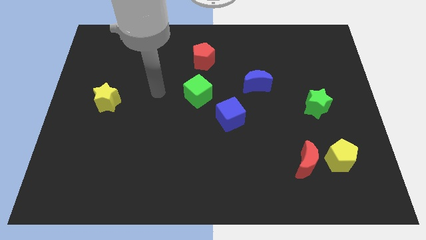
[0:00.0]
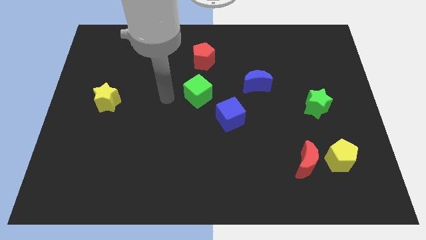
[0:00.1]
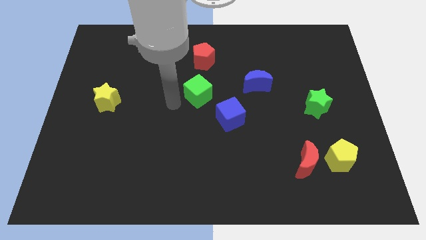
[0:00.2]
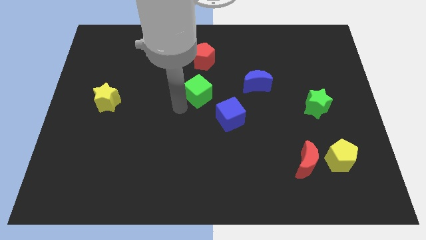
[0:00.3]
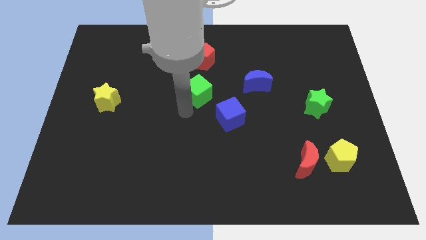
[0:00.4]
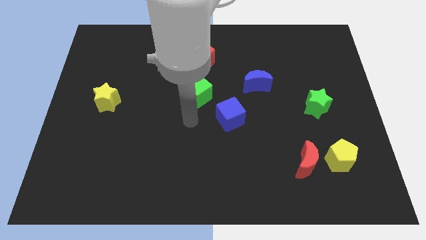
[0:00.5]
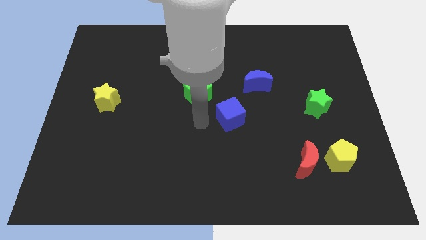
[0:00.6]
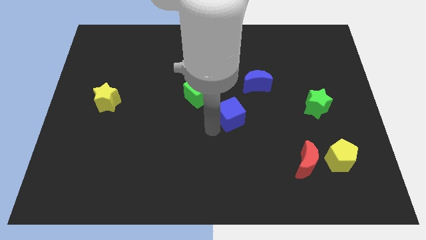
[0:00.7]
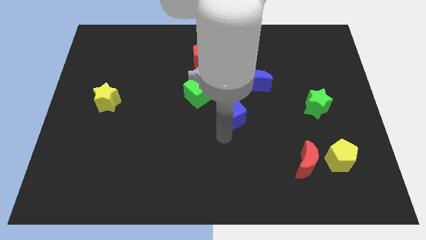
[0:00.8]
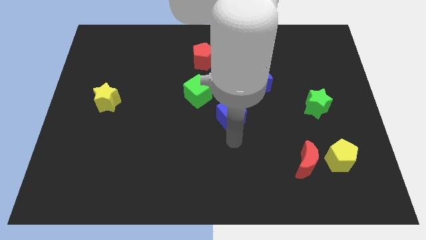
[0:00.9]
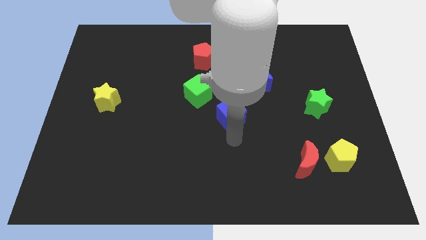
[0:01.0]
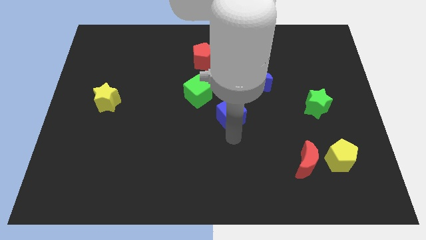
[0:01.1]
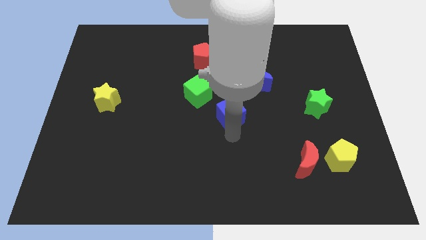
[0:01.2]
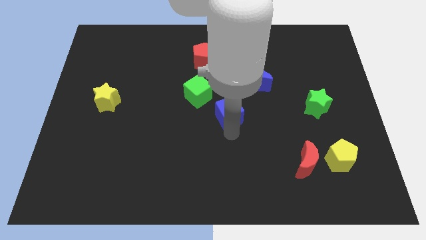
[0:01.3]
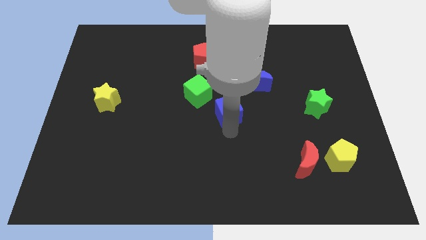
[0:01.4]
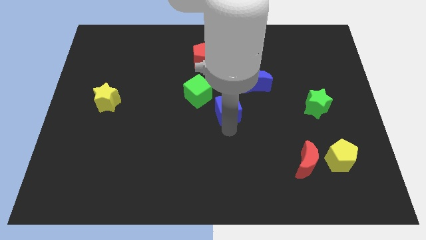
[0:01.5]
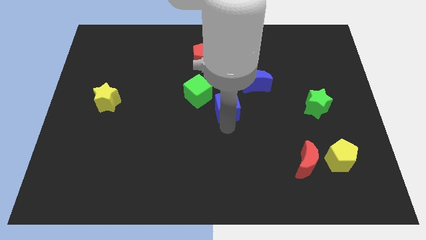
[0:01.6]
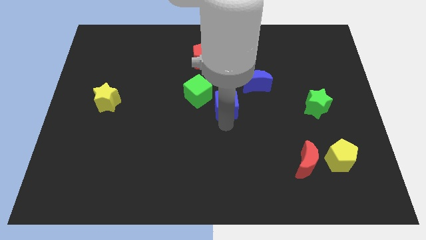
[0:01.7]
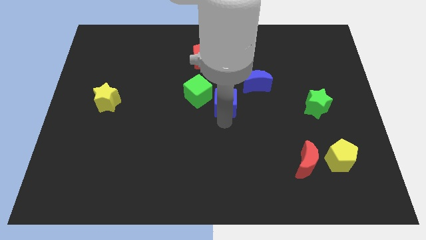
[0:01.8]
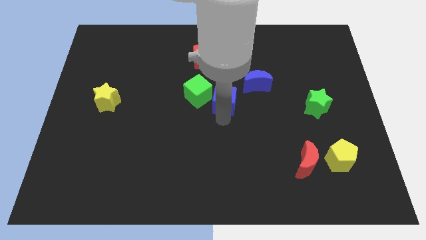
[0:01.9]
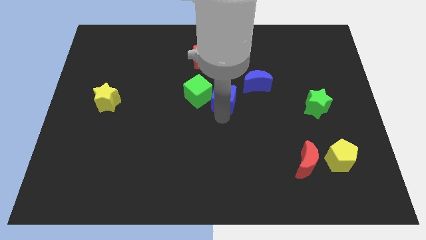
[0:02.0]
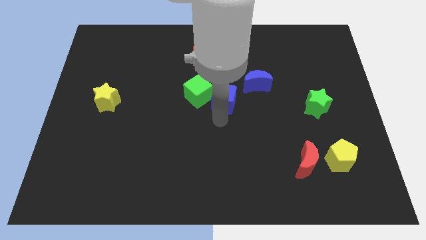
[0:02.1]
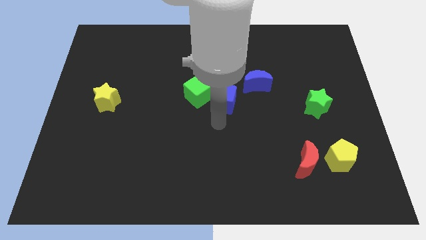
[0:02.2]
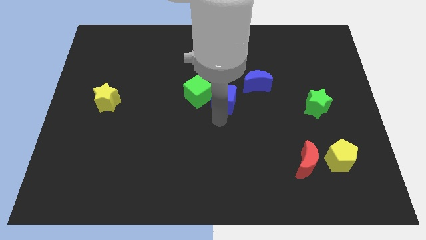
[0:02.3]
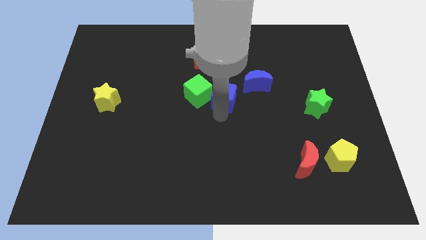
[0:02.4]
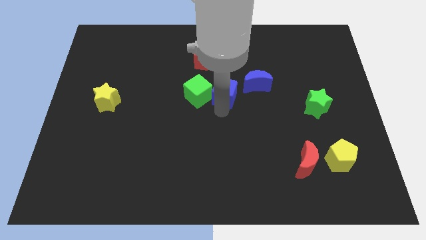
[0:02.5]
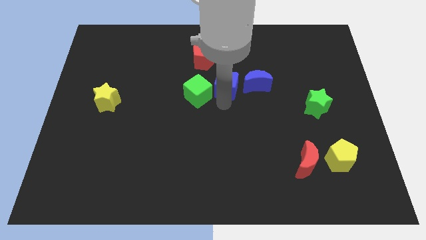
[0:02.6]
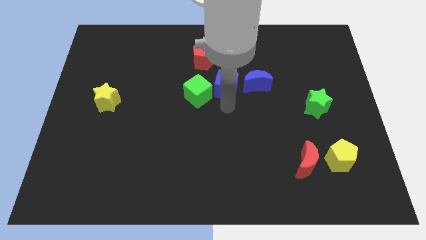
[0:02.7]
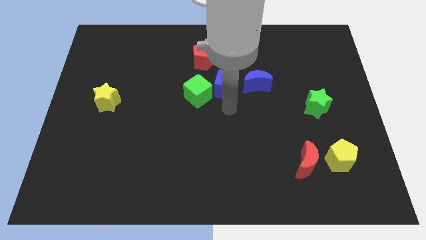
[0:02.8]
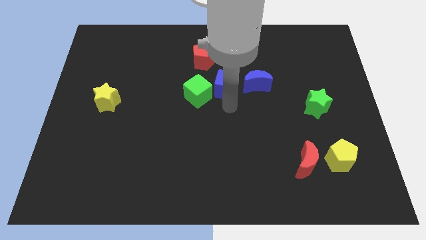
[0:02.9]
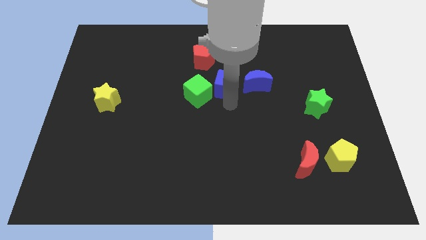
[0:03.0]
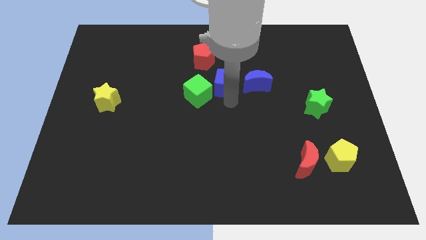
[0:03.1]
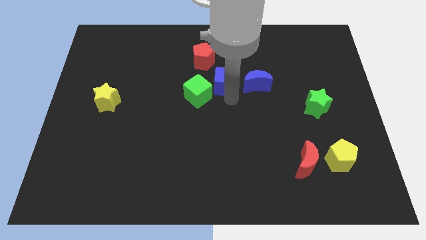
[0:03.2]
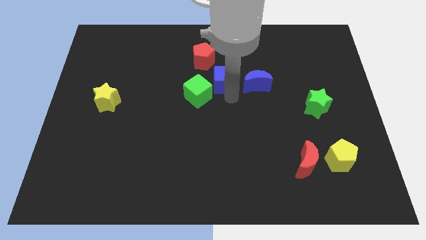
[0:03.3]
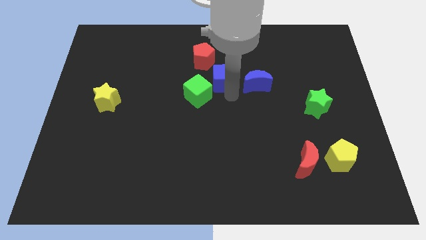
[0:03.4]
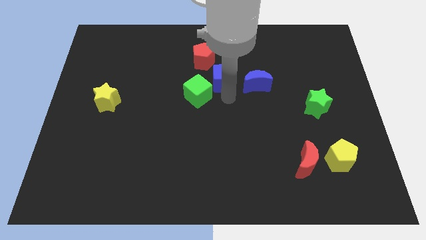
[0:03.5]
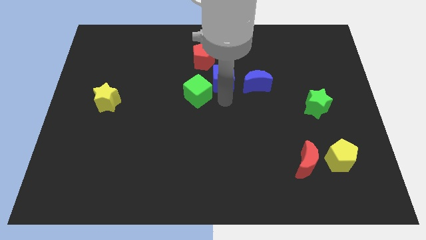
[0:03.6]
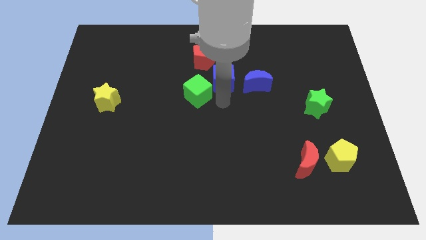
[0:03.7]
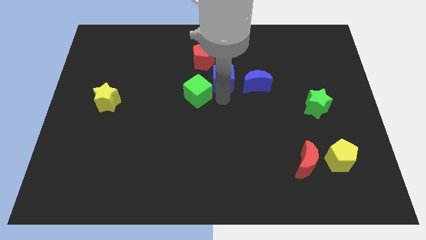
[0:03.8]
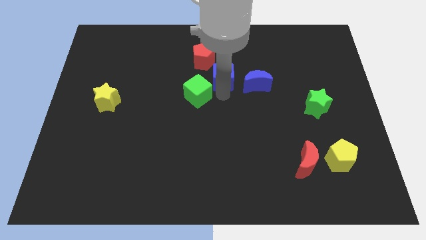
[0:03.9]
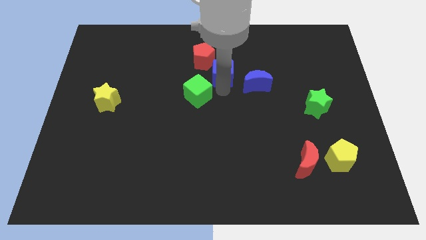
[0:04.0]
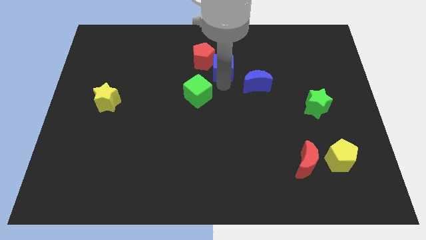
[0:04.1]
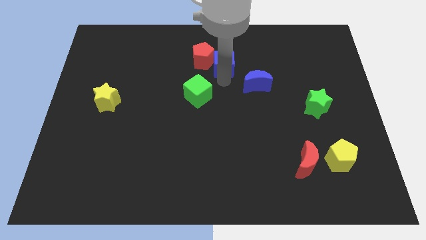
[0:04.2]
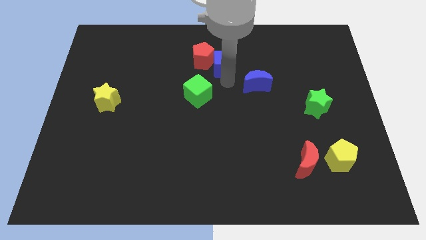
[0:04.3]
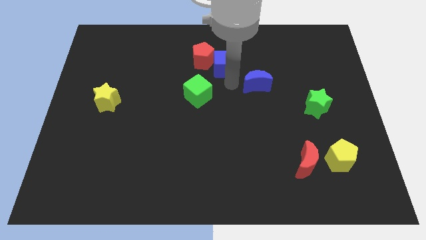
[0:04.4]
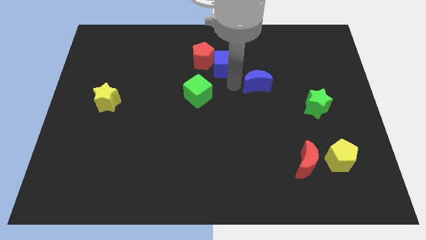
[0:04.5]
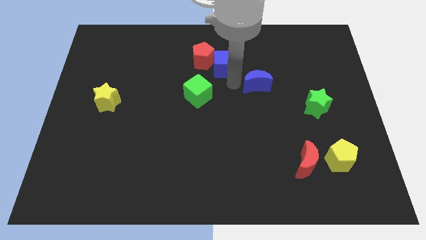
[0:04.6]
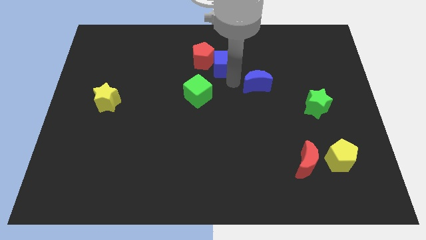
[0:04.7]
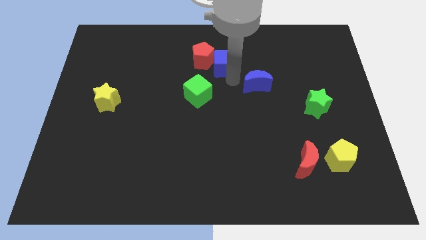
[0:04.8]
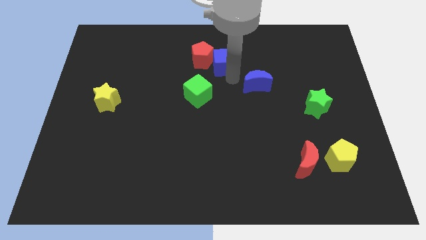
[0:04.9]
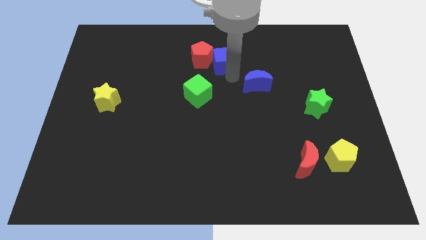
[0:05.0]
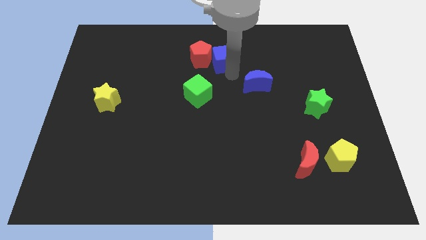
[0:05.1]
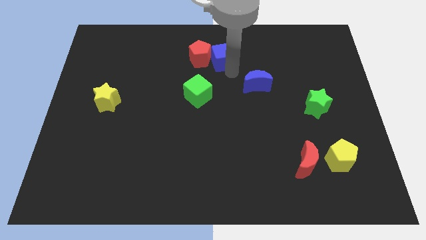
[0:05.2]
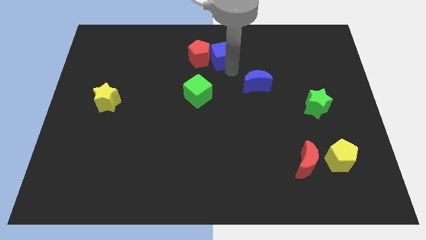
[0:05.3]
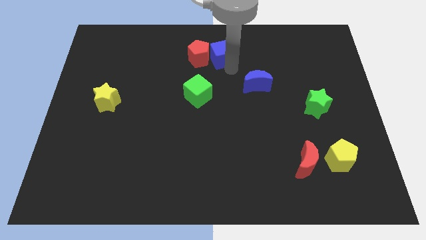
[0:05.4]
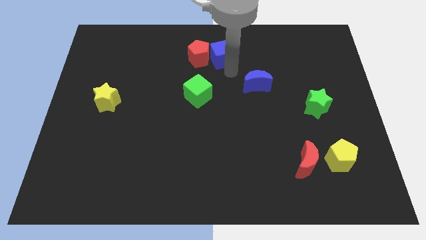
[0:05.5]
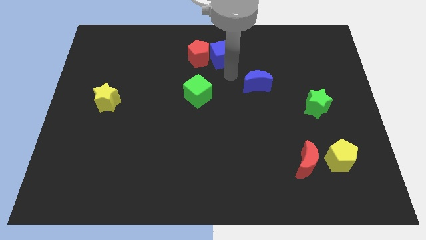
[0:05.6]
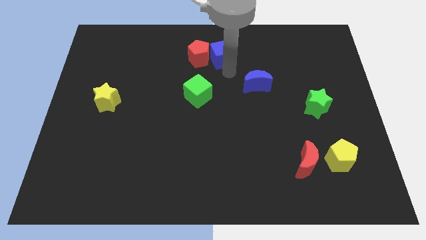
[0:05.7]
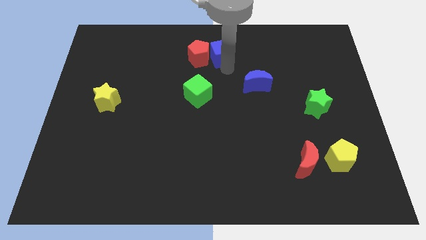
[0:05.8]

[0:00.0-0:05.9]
slide the blue cube to the top

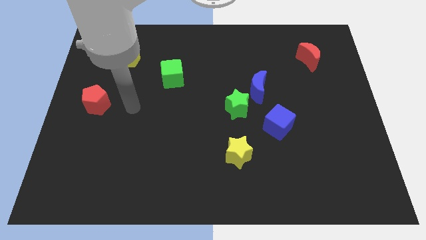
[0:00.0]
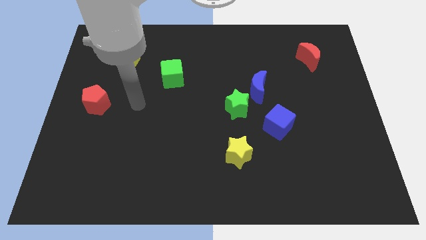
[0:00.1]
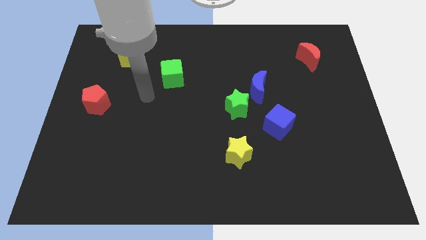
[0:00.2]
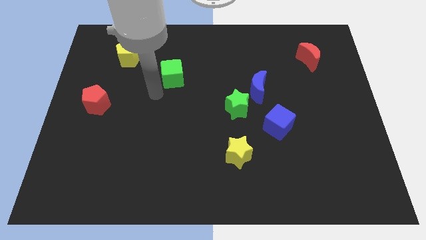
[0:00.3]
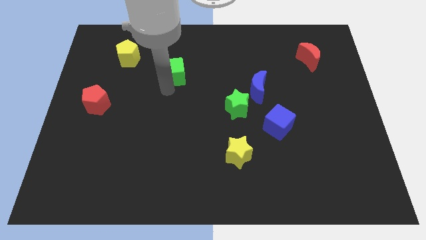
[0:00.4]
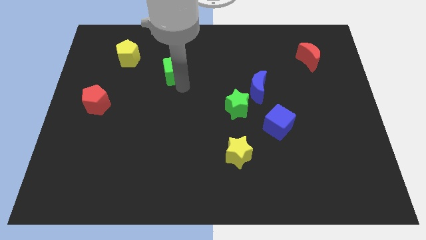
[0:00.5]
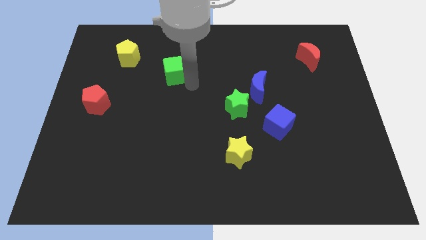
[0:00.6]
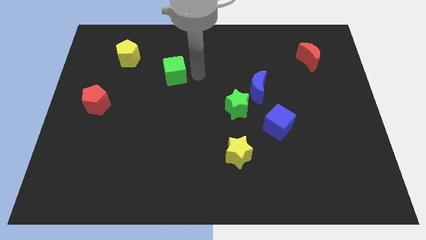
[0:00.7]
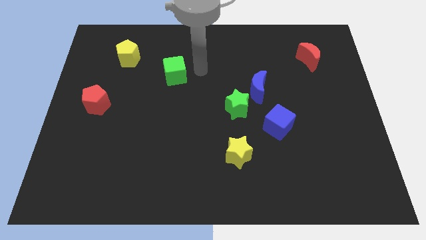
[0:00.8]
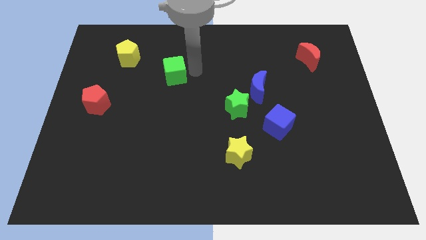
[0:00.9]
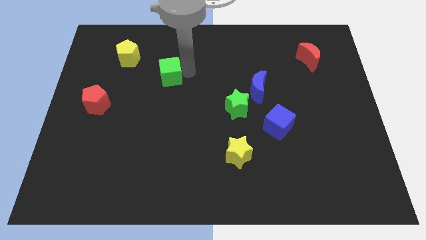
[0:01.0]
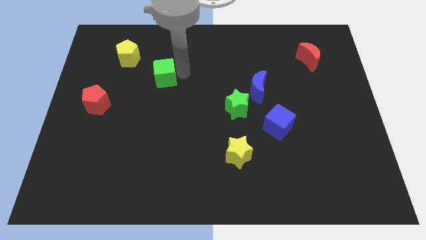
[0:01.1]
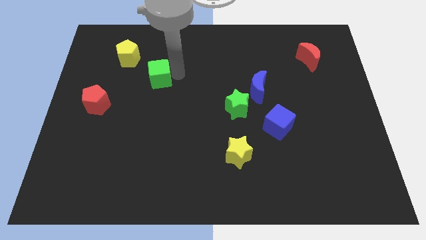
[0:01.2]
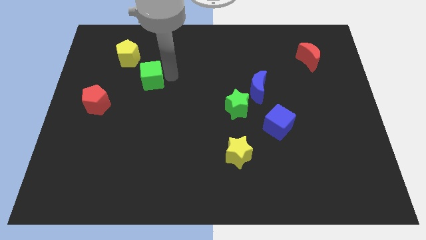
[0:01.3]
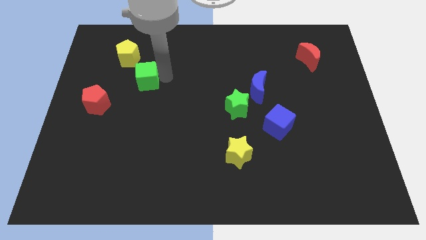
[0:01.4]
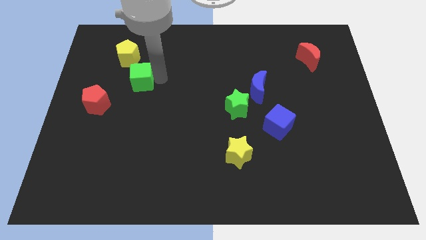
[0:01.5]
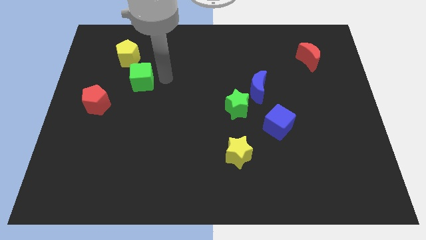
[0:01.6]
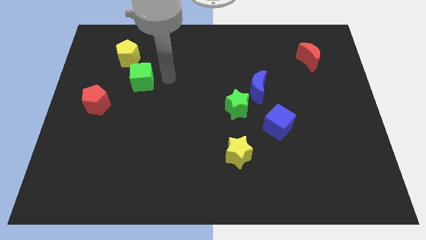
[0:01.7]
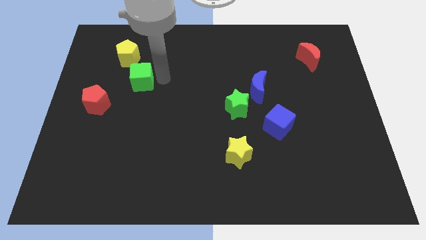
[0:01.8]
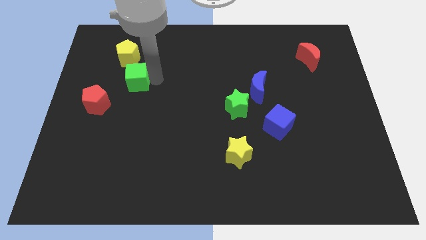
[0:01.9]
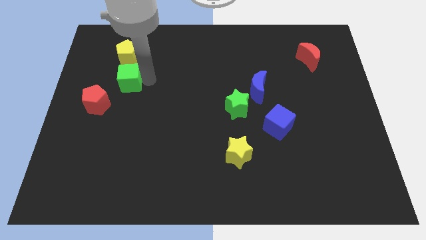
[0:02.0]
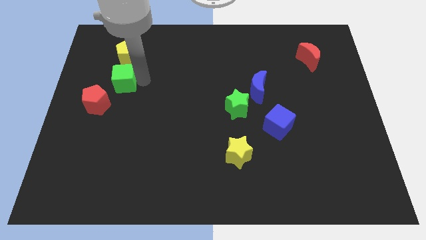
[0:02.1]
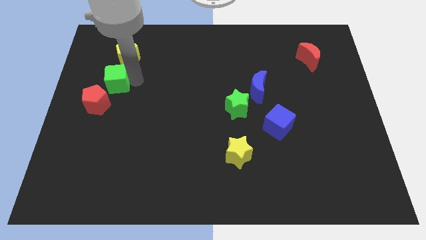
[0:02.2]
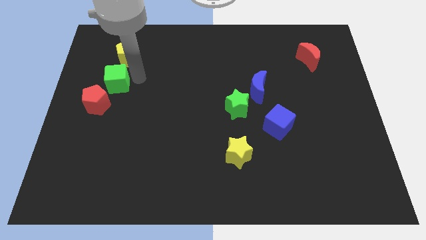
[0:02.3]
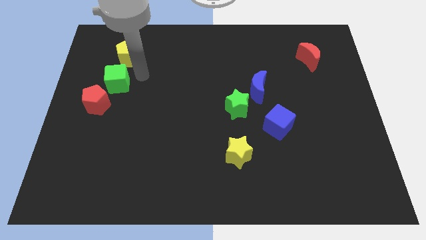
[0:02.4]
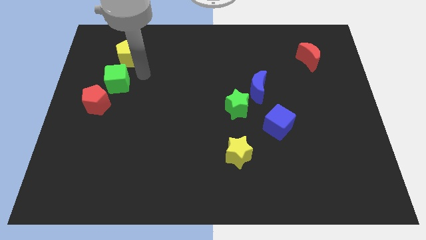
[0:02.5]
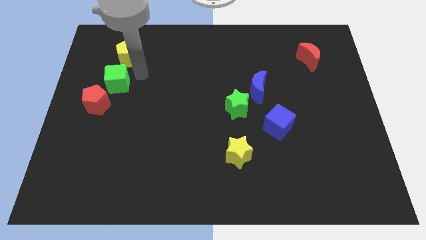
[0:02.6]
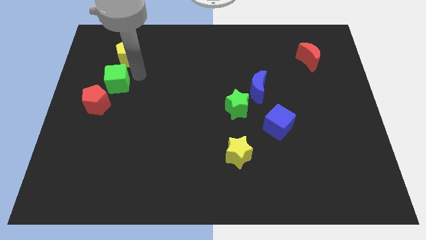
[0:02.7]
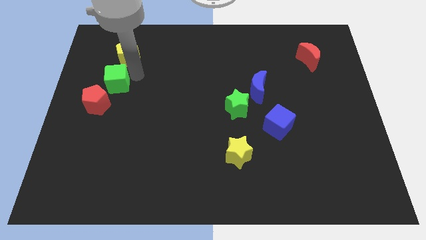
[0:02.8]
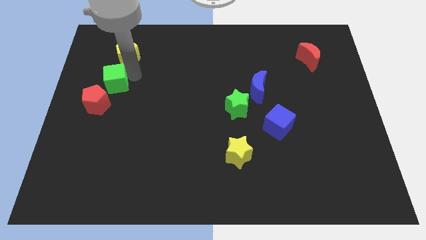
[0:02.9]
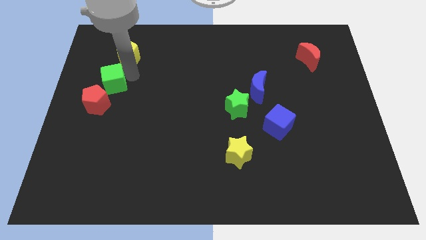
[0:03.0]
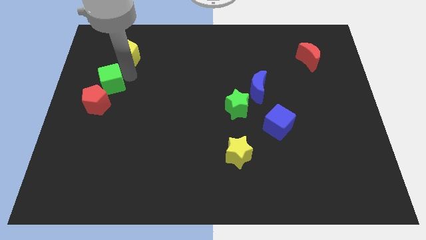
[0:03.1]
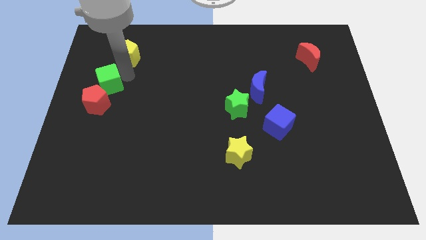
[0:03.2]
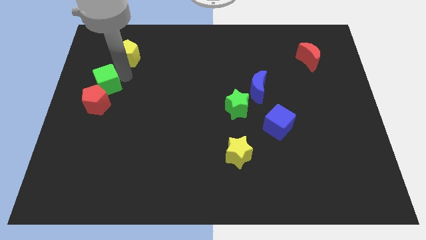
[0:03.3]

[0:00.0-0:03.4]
push the green cube to the left side of the board
